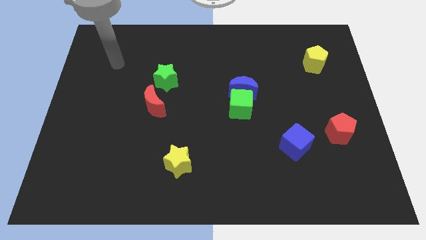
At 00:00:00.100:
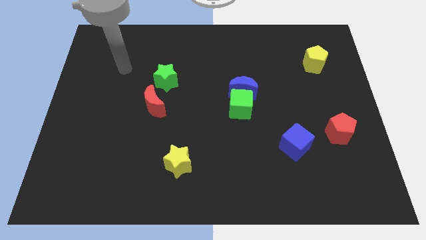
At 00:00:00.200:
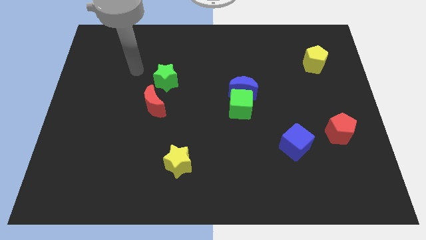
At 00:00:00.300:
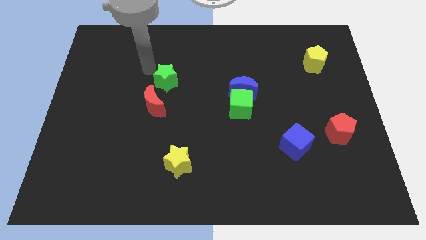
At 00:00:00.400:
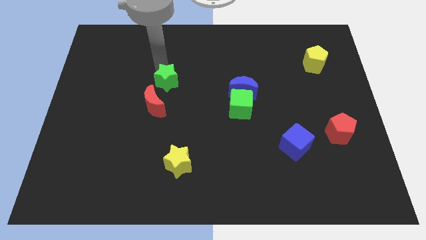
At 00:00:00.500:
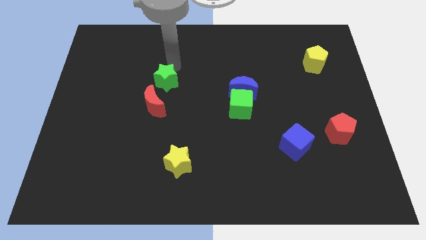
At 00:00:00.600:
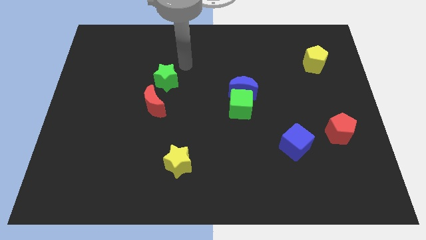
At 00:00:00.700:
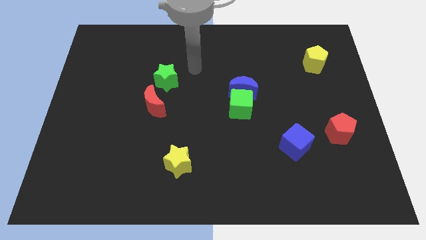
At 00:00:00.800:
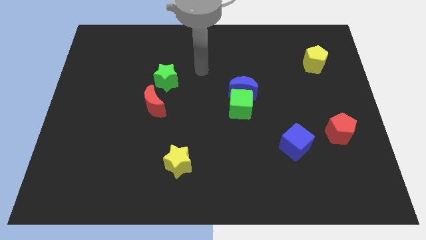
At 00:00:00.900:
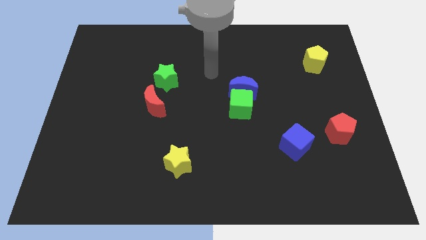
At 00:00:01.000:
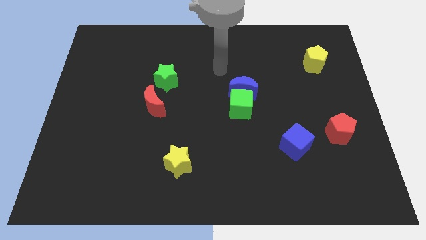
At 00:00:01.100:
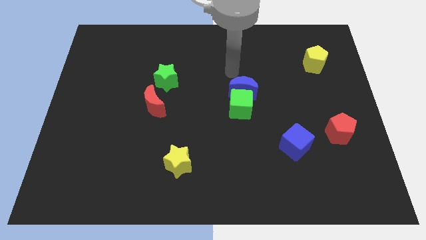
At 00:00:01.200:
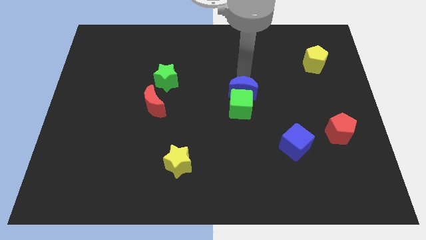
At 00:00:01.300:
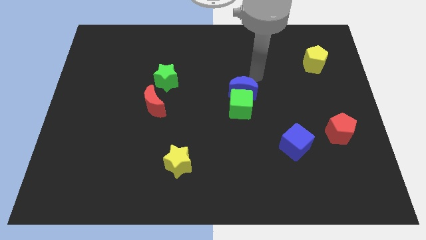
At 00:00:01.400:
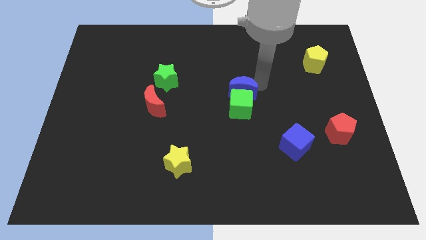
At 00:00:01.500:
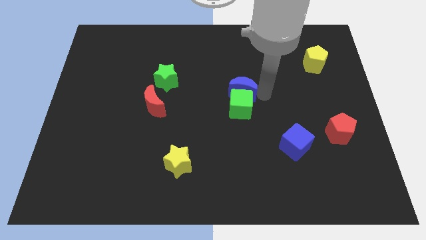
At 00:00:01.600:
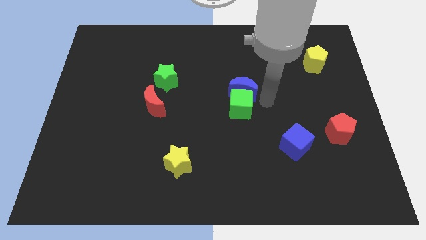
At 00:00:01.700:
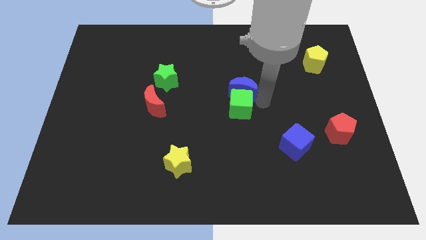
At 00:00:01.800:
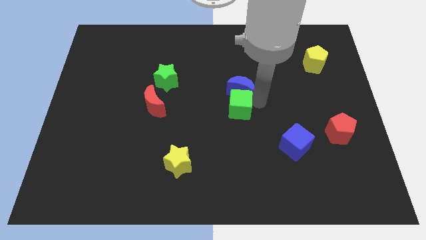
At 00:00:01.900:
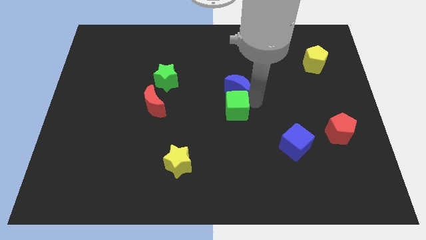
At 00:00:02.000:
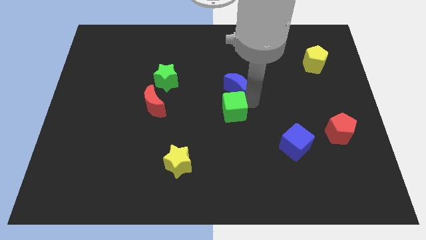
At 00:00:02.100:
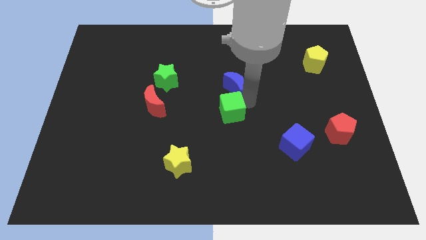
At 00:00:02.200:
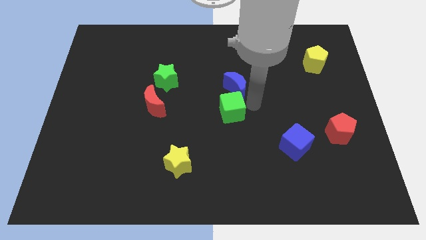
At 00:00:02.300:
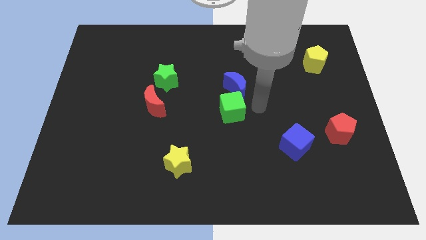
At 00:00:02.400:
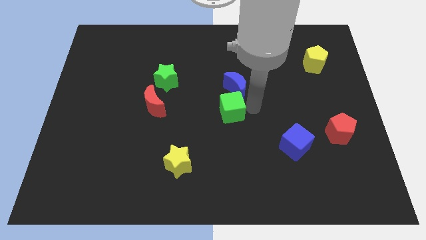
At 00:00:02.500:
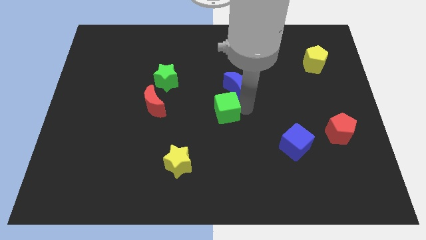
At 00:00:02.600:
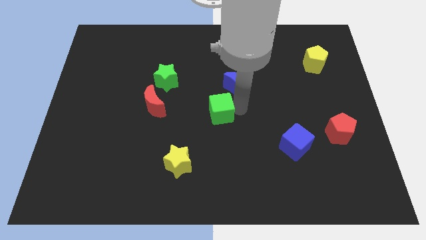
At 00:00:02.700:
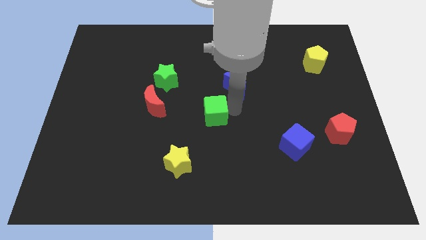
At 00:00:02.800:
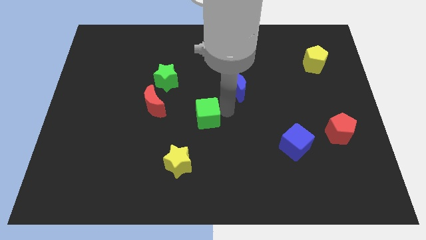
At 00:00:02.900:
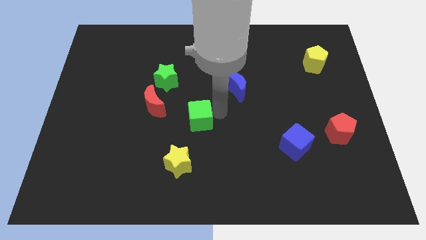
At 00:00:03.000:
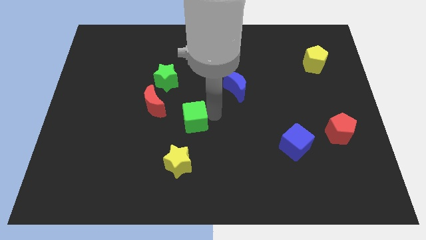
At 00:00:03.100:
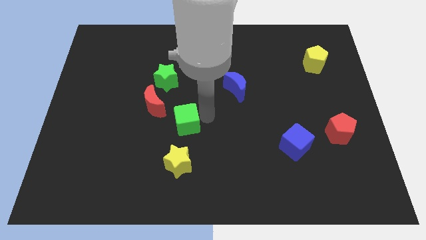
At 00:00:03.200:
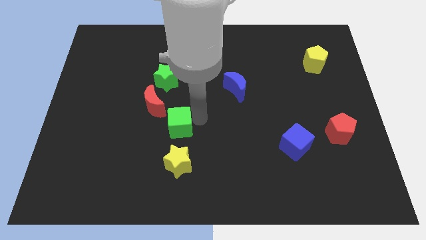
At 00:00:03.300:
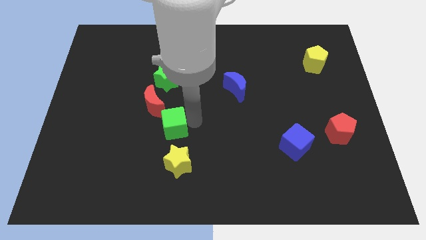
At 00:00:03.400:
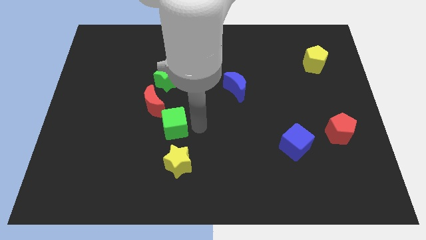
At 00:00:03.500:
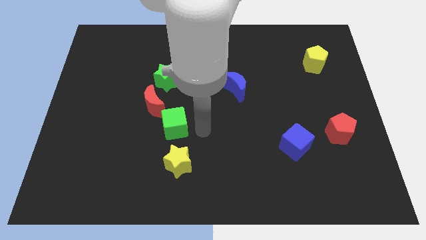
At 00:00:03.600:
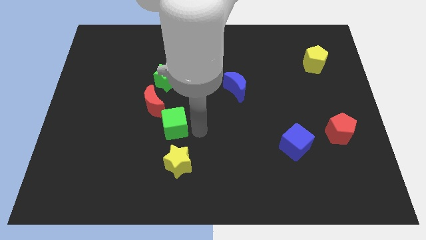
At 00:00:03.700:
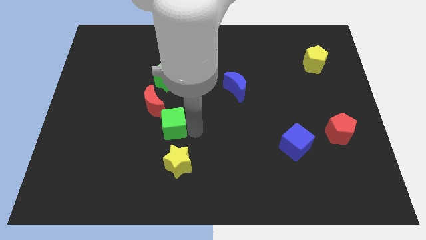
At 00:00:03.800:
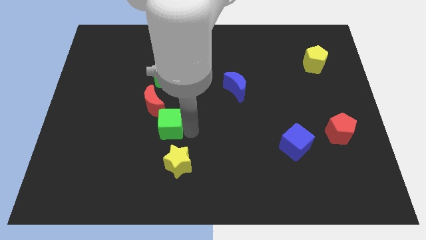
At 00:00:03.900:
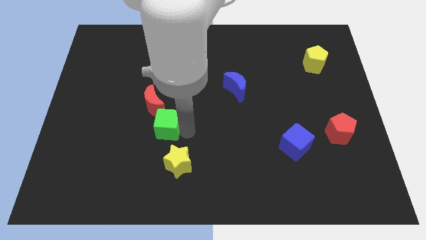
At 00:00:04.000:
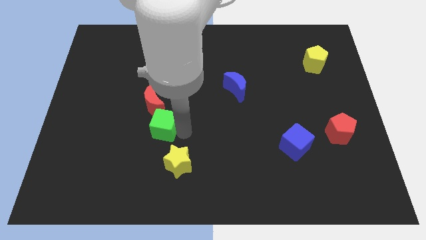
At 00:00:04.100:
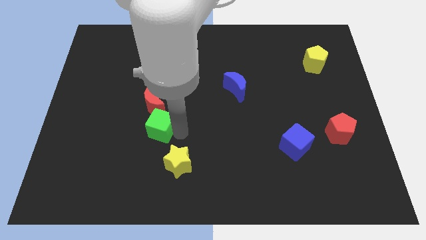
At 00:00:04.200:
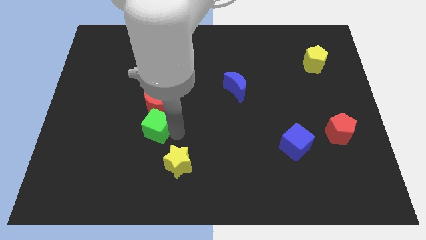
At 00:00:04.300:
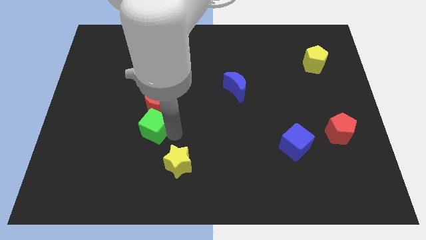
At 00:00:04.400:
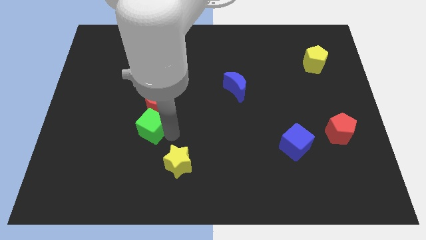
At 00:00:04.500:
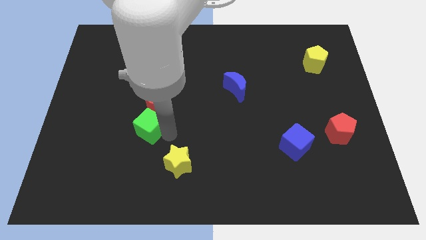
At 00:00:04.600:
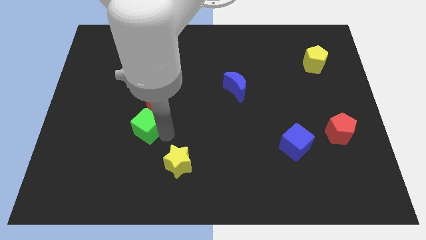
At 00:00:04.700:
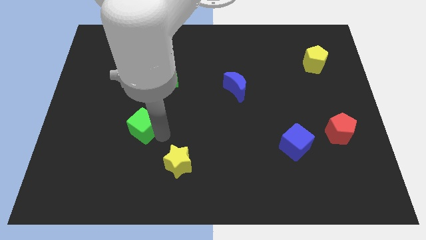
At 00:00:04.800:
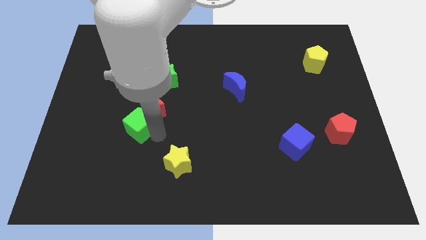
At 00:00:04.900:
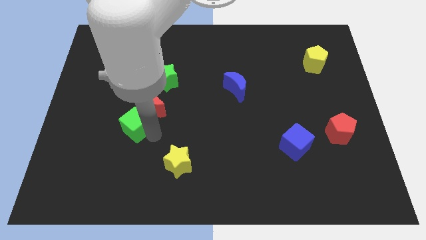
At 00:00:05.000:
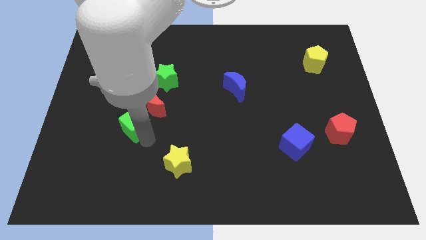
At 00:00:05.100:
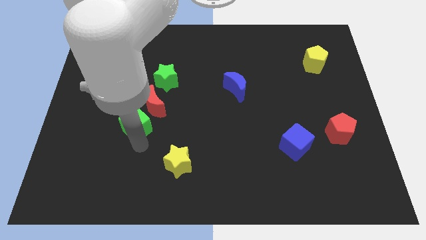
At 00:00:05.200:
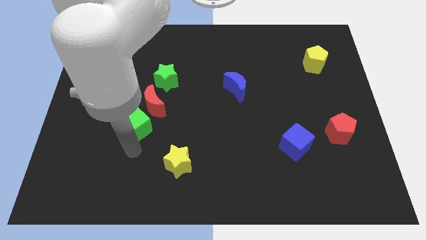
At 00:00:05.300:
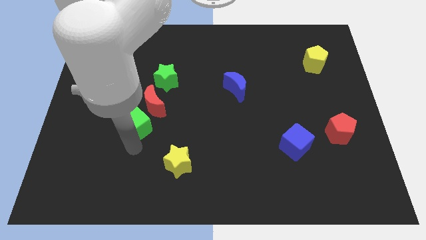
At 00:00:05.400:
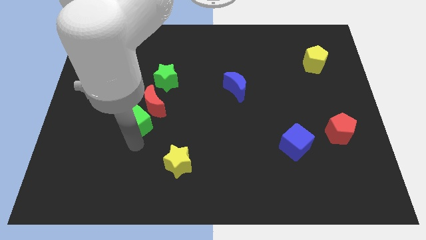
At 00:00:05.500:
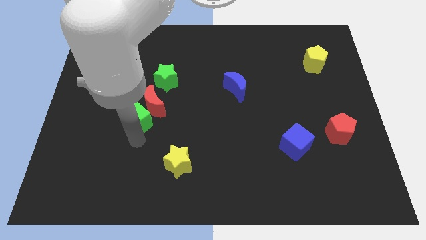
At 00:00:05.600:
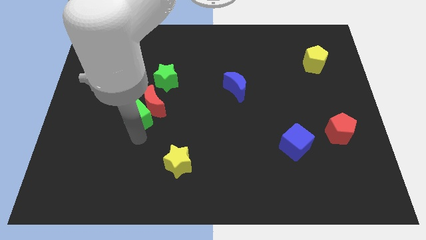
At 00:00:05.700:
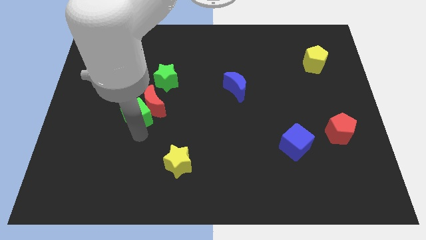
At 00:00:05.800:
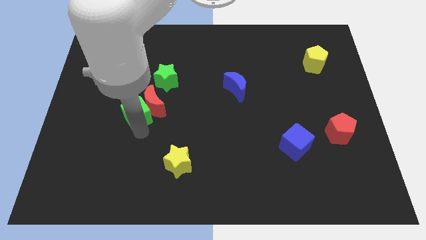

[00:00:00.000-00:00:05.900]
slide the green cube to the bottom left side of the green star
